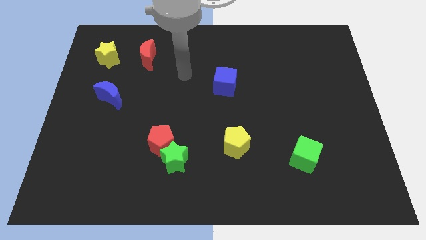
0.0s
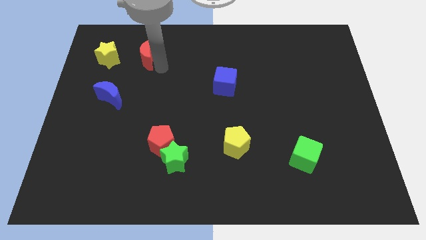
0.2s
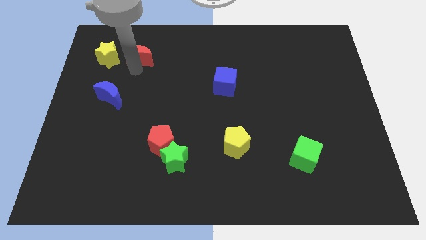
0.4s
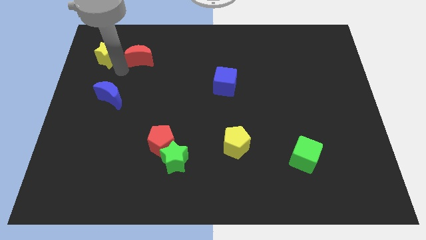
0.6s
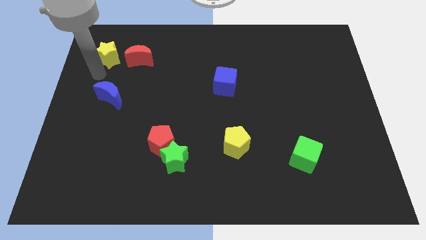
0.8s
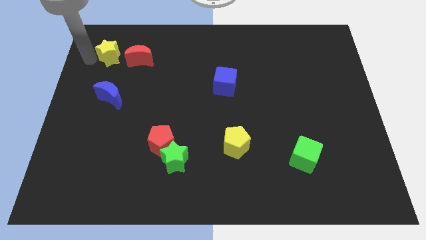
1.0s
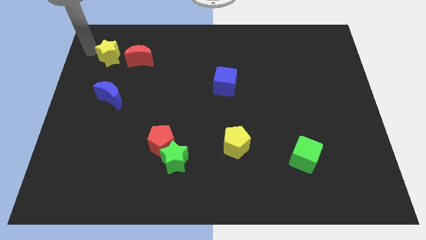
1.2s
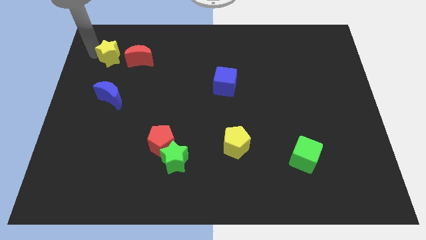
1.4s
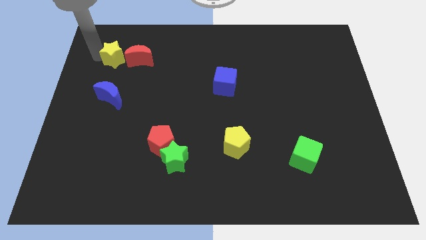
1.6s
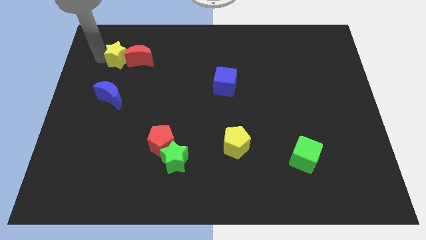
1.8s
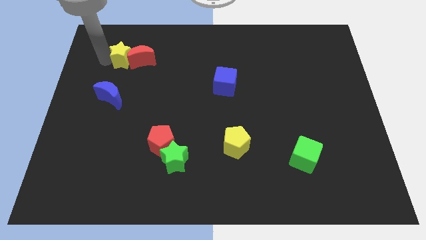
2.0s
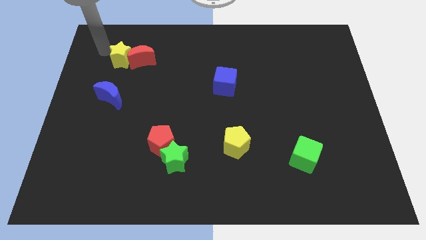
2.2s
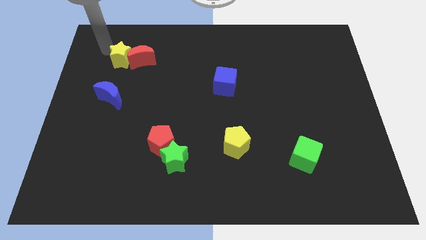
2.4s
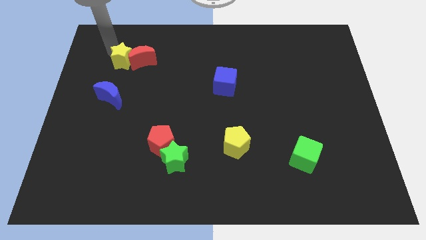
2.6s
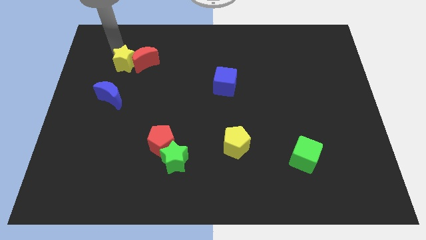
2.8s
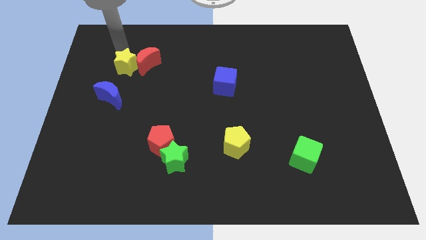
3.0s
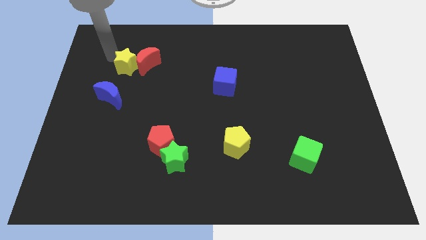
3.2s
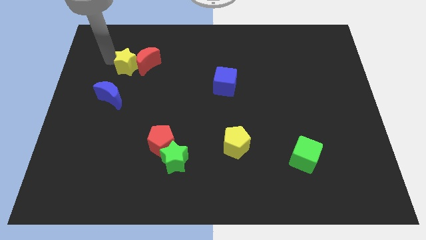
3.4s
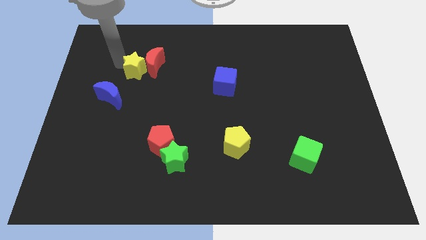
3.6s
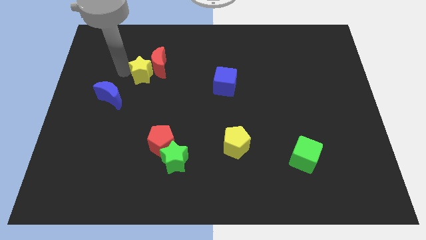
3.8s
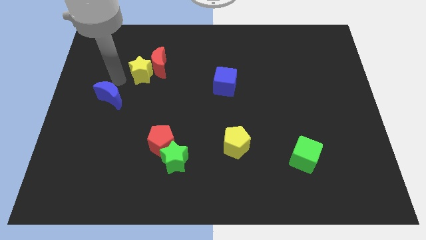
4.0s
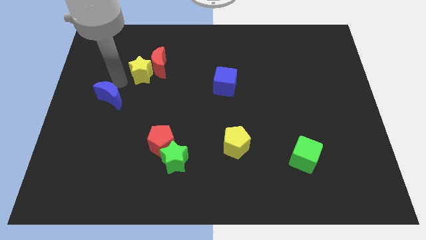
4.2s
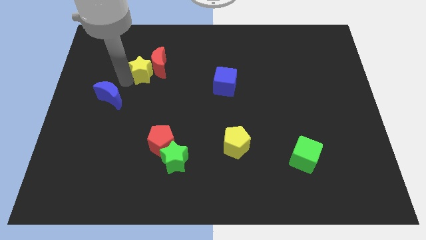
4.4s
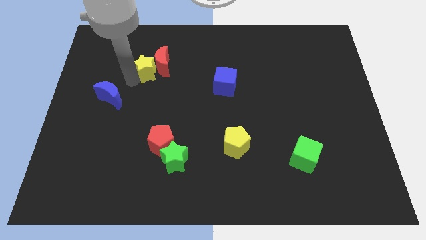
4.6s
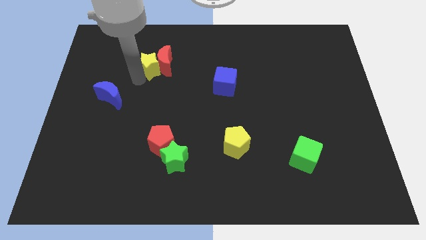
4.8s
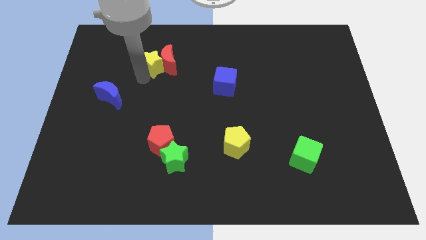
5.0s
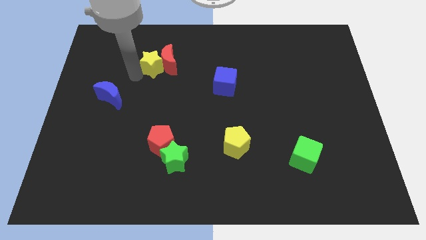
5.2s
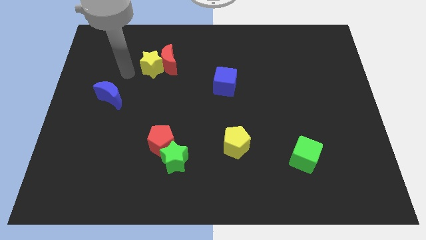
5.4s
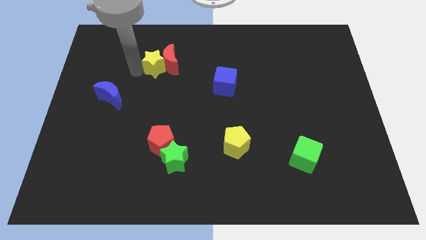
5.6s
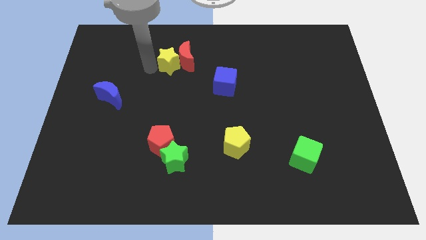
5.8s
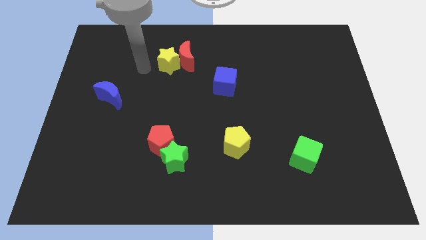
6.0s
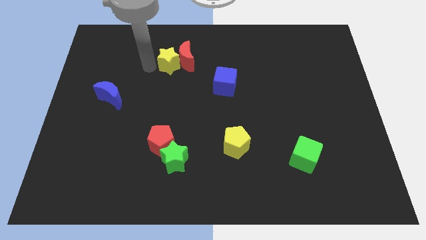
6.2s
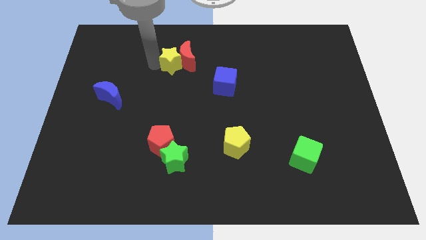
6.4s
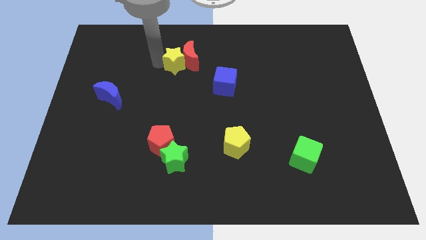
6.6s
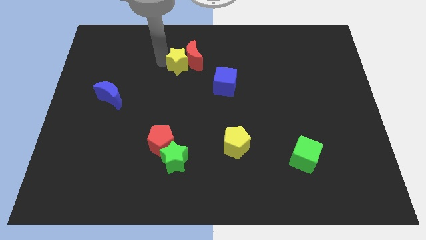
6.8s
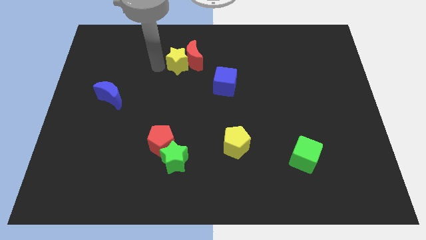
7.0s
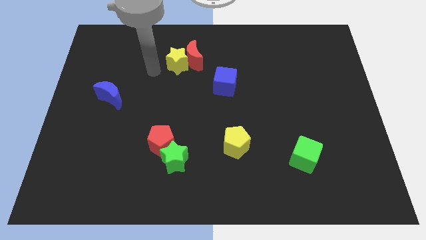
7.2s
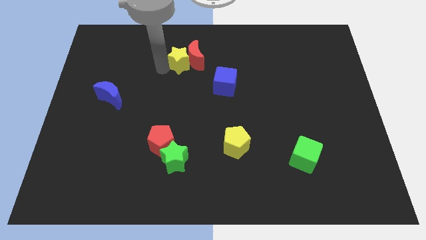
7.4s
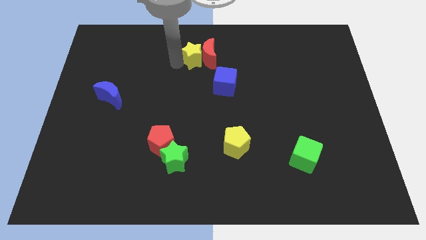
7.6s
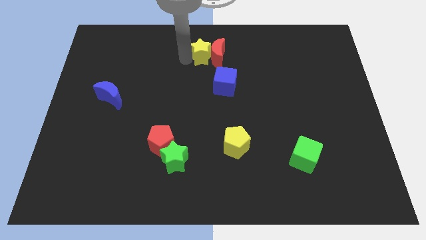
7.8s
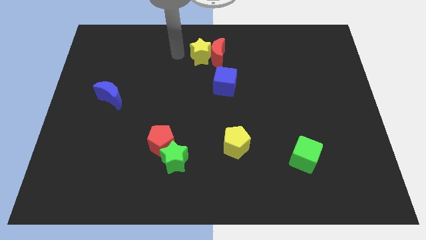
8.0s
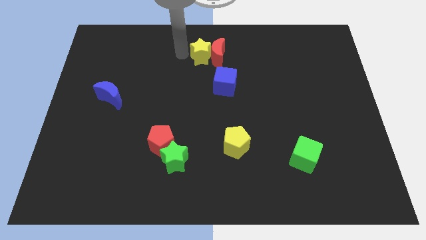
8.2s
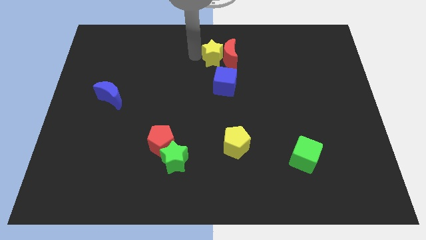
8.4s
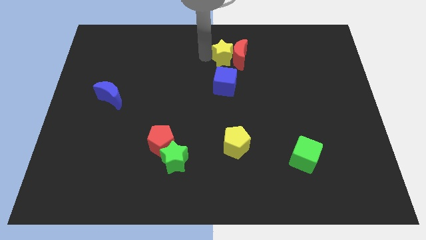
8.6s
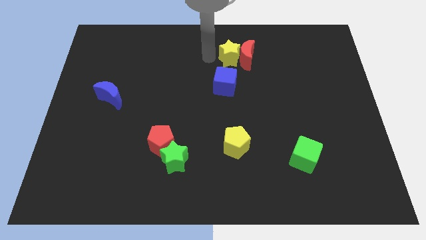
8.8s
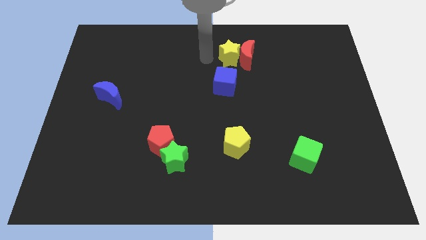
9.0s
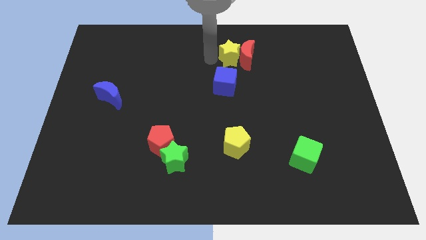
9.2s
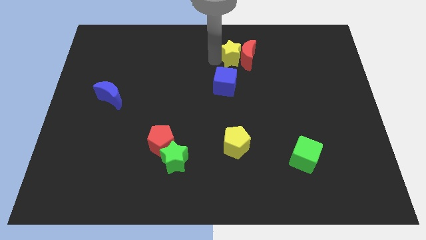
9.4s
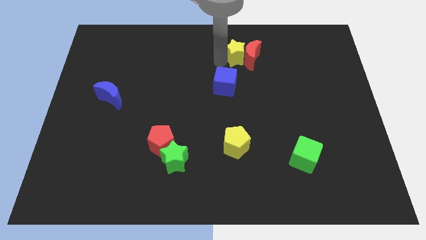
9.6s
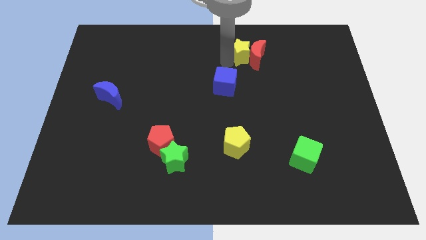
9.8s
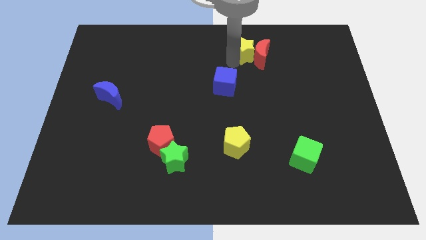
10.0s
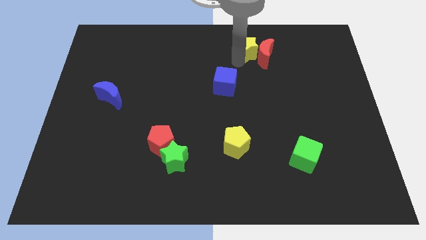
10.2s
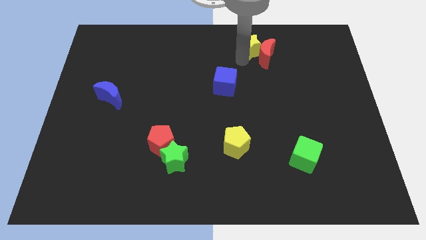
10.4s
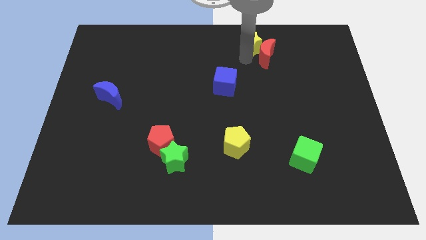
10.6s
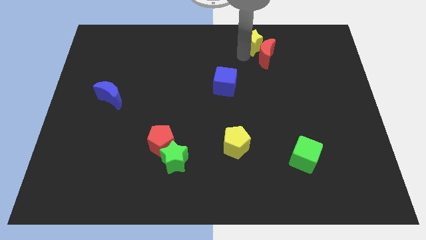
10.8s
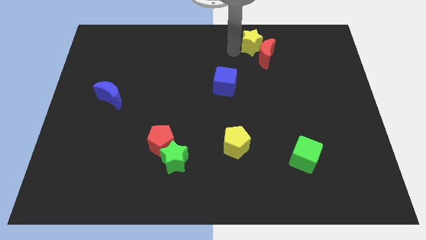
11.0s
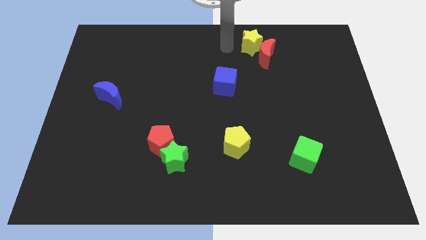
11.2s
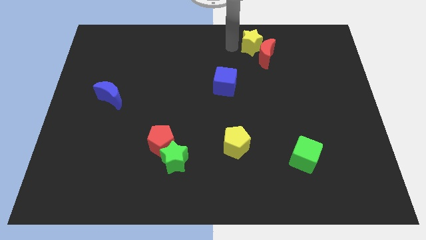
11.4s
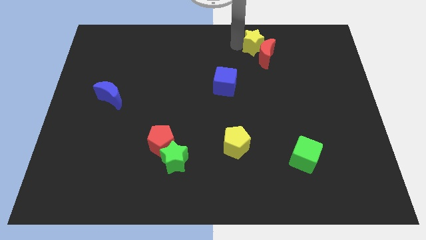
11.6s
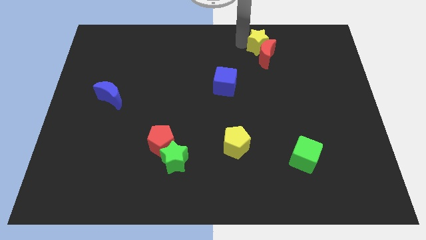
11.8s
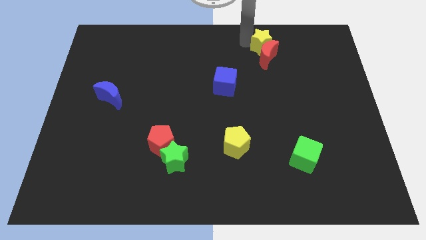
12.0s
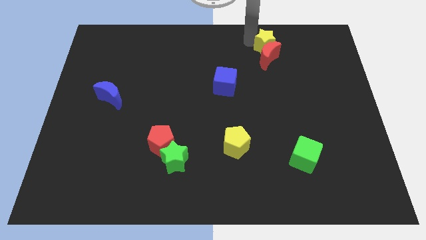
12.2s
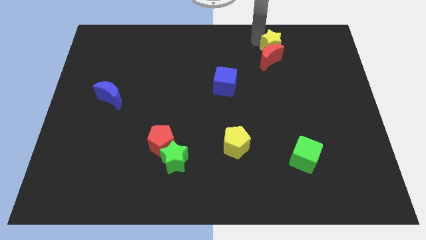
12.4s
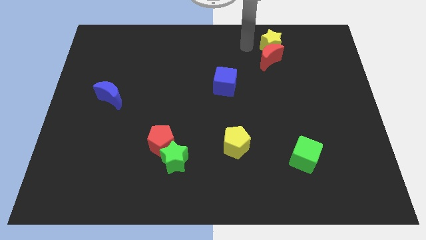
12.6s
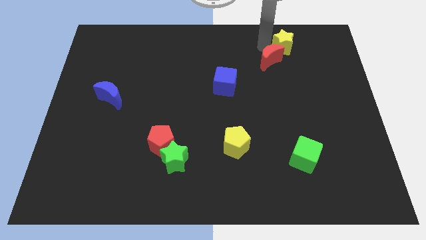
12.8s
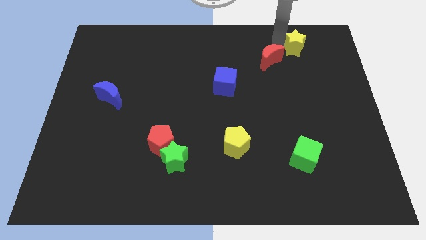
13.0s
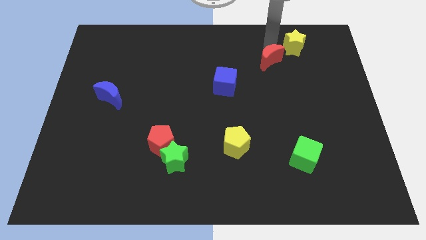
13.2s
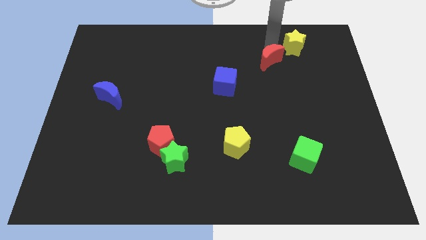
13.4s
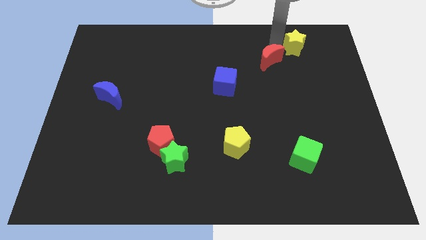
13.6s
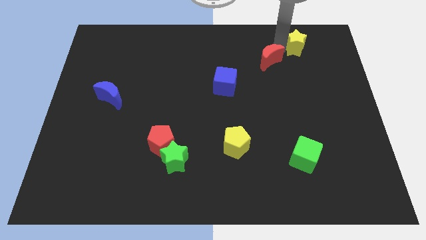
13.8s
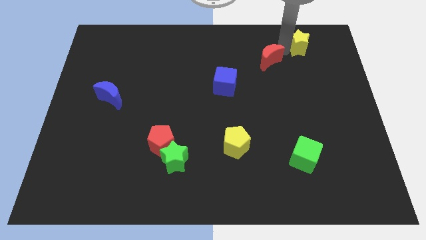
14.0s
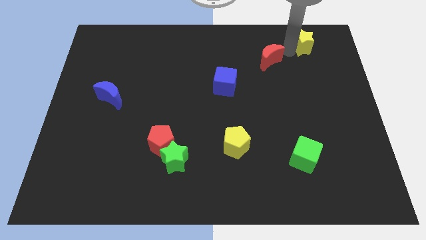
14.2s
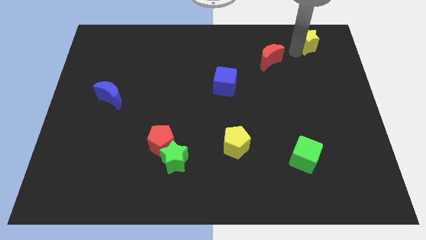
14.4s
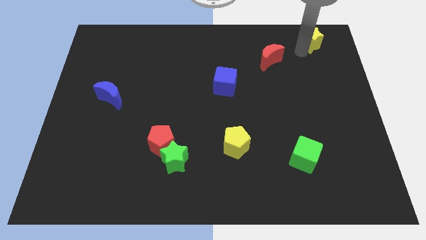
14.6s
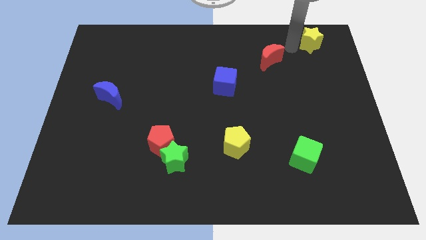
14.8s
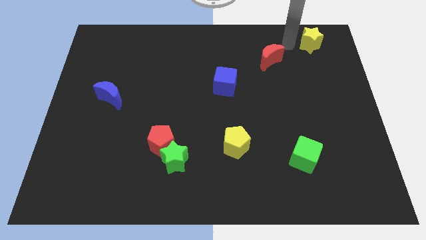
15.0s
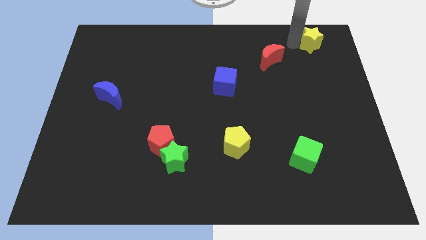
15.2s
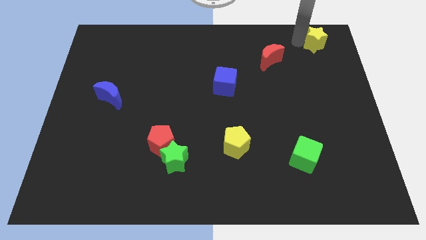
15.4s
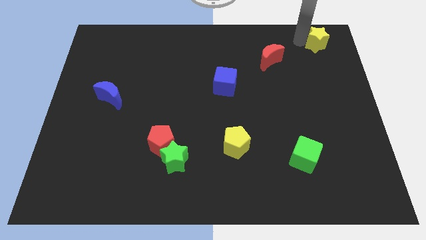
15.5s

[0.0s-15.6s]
slide the yellow star to the top right corner
